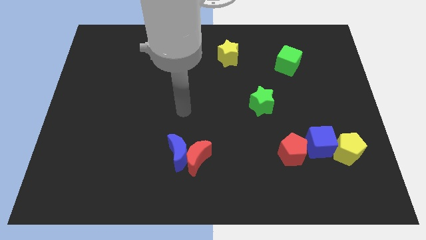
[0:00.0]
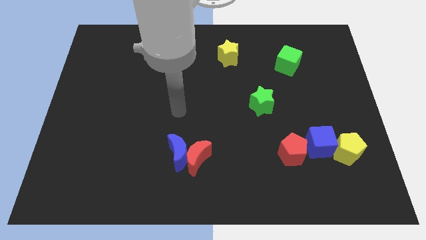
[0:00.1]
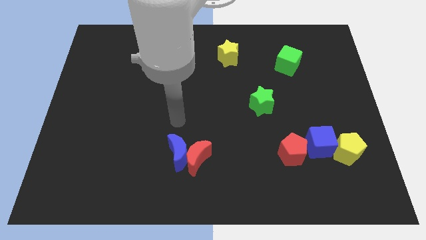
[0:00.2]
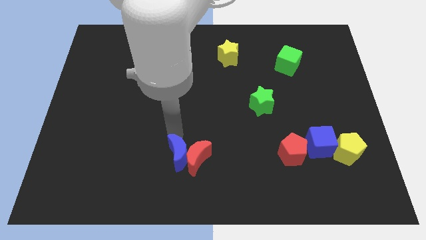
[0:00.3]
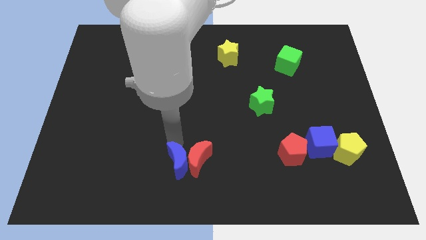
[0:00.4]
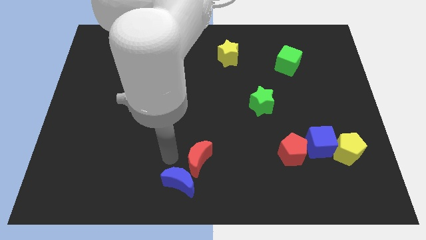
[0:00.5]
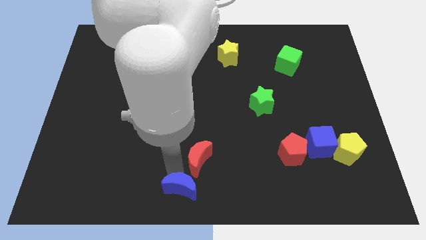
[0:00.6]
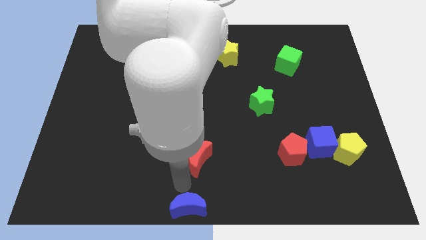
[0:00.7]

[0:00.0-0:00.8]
pull the red moon apart from the blue moon

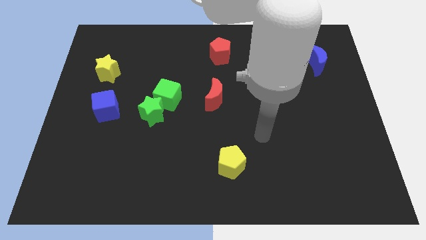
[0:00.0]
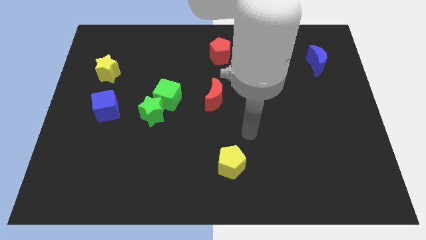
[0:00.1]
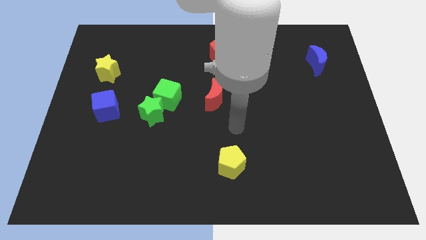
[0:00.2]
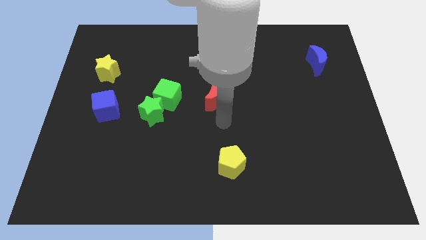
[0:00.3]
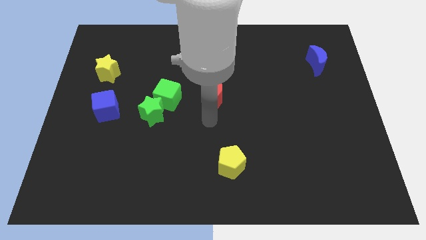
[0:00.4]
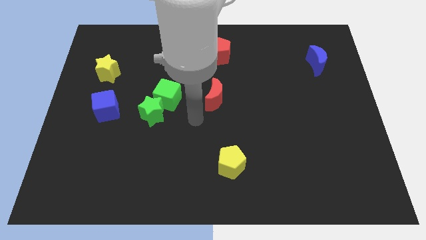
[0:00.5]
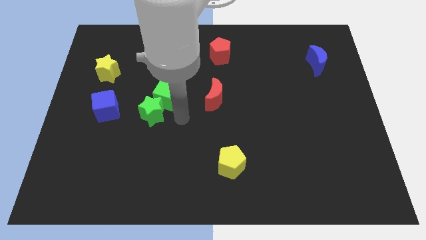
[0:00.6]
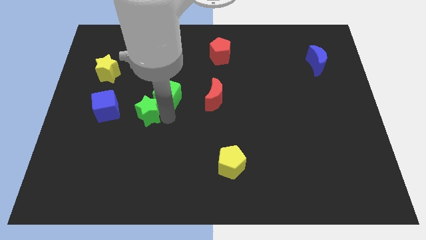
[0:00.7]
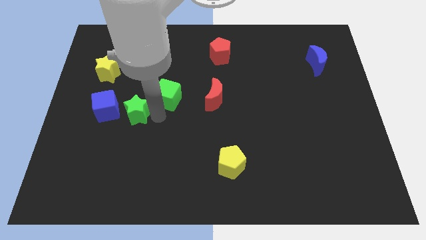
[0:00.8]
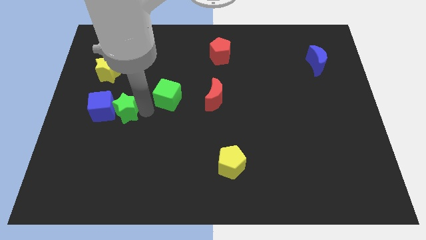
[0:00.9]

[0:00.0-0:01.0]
move the green cube away from the green star

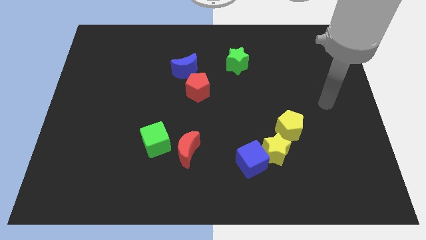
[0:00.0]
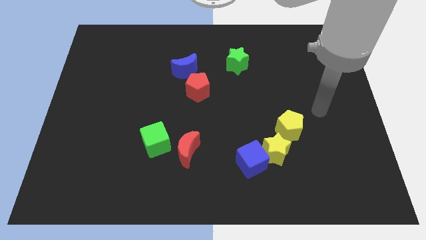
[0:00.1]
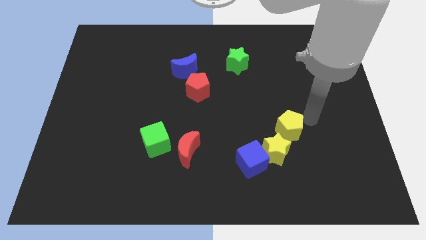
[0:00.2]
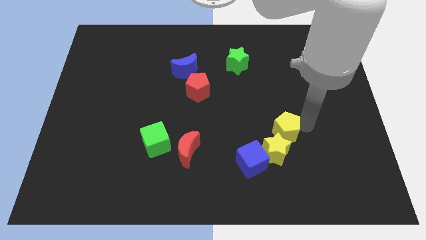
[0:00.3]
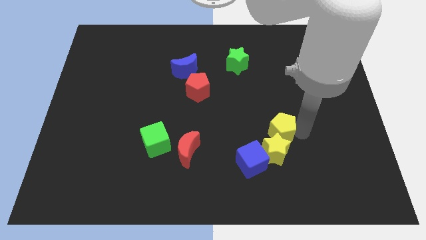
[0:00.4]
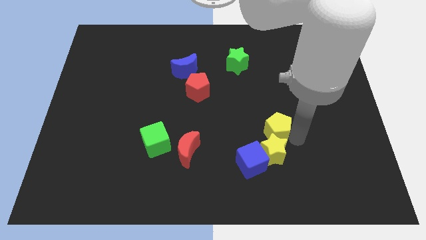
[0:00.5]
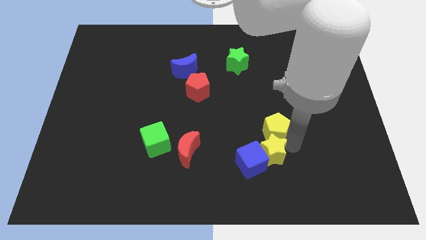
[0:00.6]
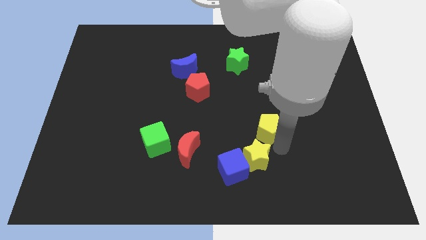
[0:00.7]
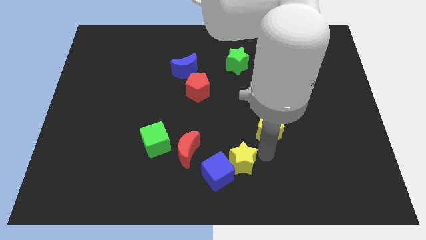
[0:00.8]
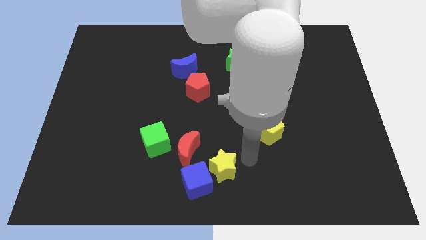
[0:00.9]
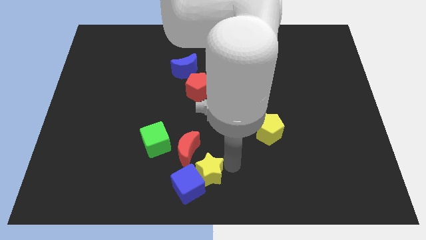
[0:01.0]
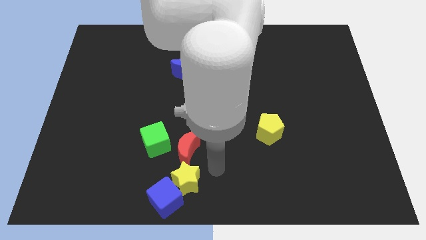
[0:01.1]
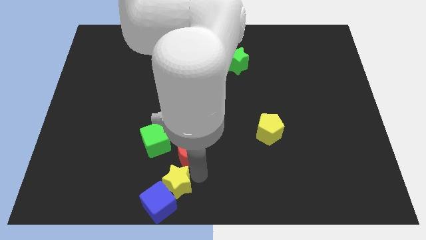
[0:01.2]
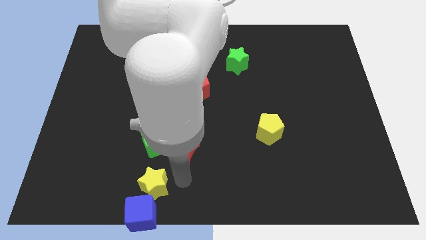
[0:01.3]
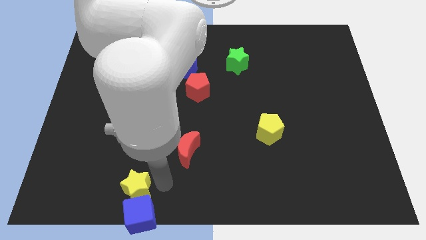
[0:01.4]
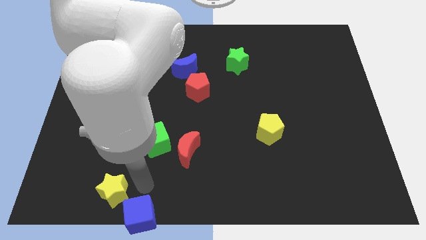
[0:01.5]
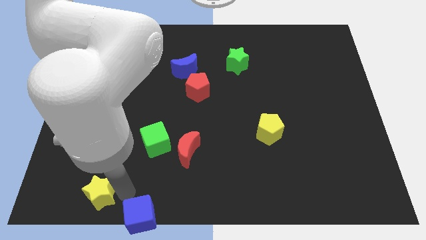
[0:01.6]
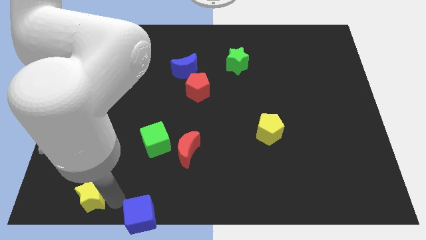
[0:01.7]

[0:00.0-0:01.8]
move the blue cube away from the yellow star

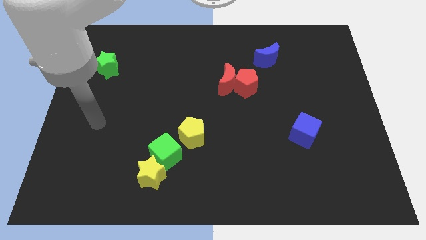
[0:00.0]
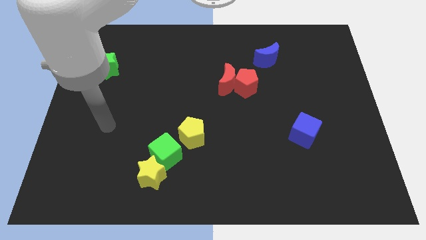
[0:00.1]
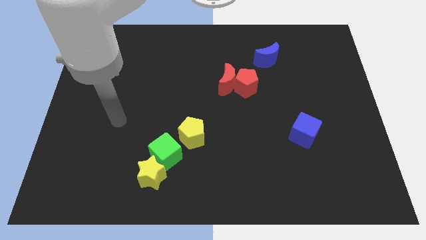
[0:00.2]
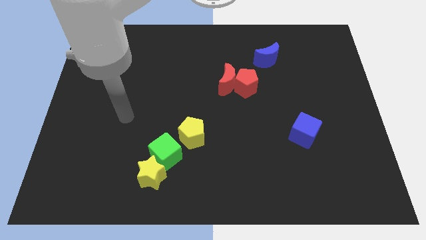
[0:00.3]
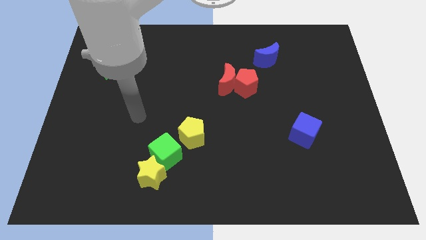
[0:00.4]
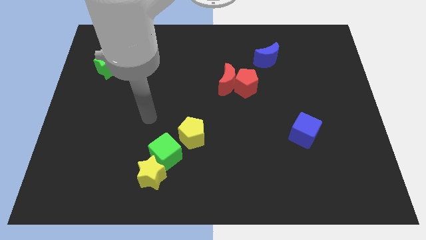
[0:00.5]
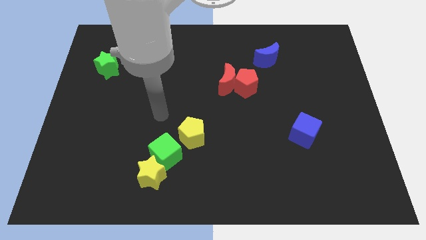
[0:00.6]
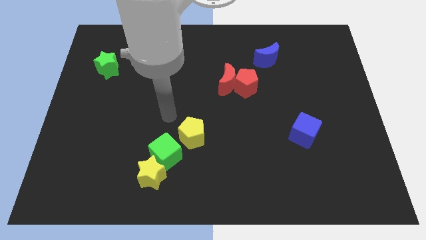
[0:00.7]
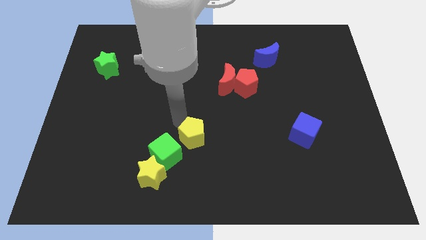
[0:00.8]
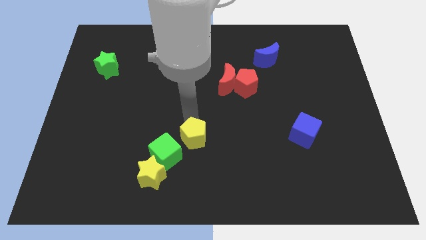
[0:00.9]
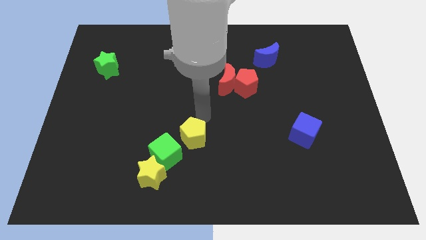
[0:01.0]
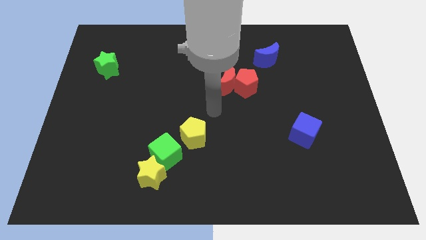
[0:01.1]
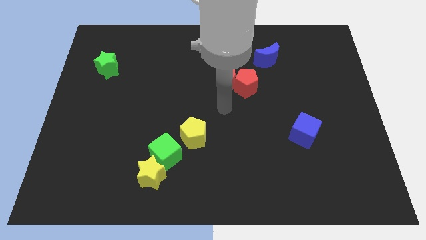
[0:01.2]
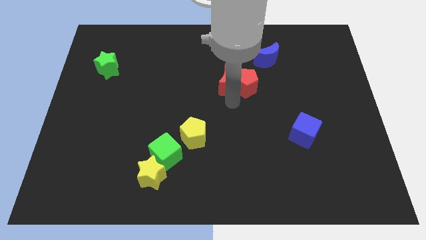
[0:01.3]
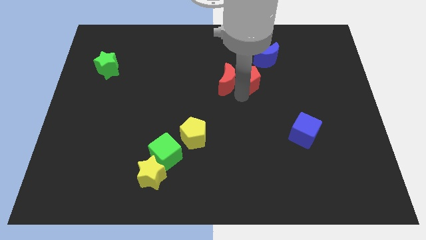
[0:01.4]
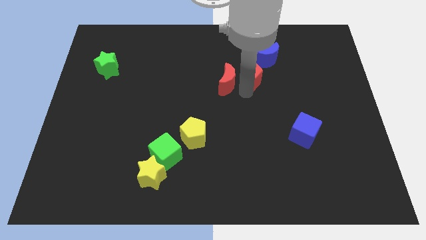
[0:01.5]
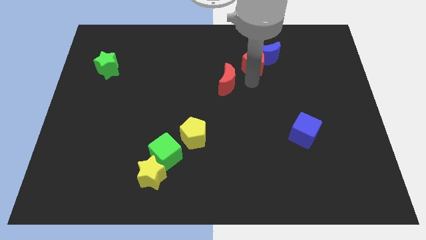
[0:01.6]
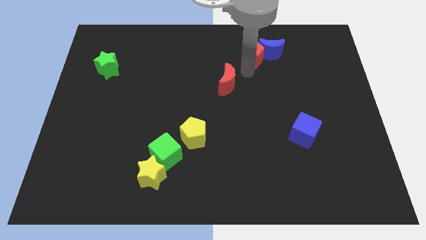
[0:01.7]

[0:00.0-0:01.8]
separate the red moon from the red pentagon

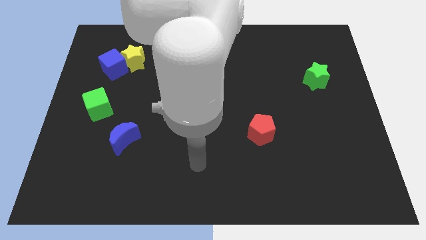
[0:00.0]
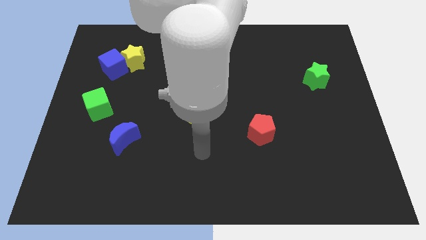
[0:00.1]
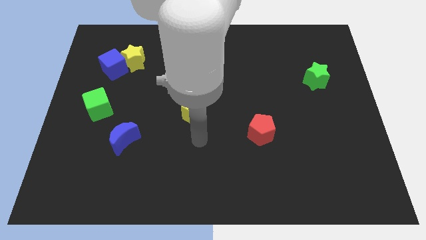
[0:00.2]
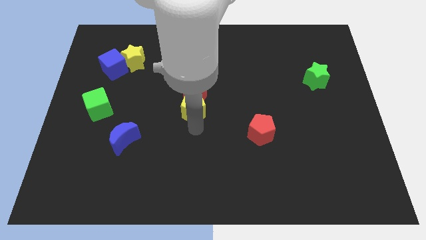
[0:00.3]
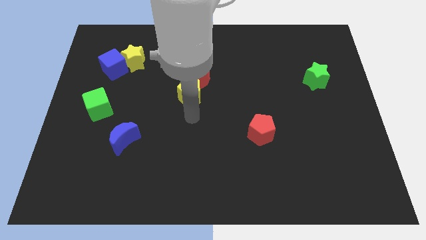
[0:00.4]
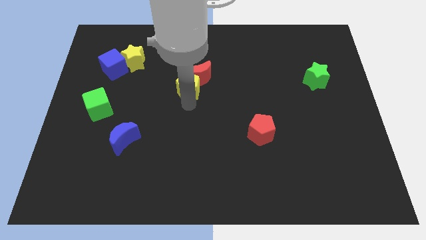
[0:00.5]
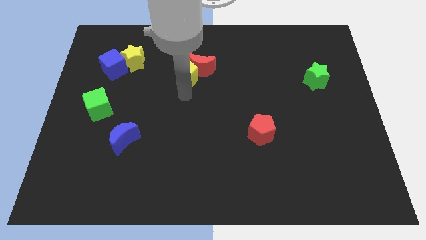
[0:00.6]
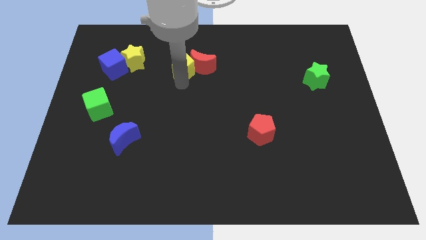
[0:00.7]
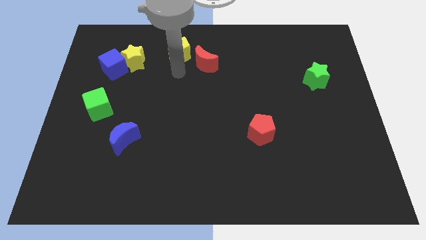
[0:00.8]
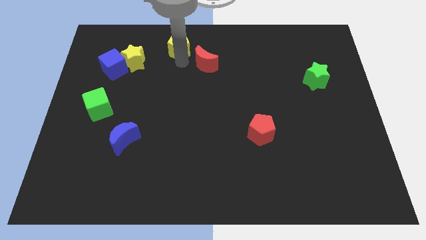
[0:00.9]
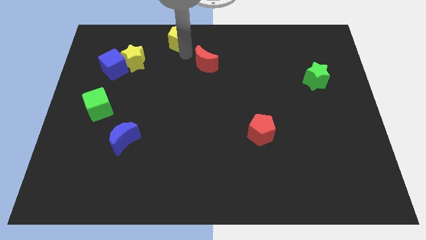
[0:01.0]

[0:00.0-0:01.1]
move the red moon away from the yellow pentagon

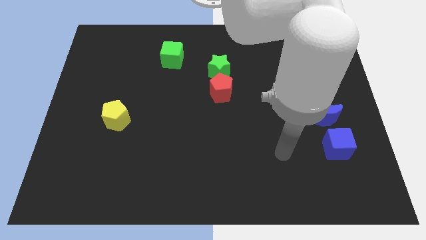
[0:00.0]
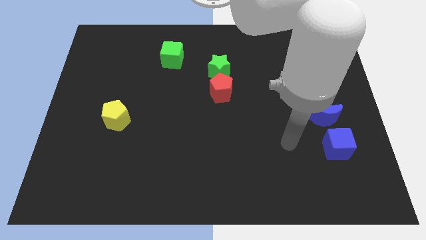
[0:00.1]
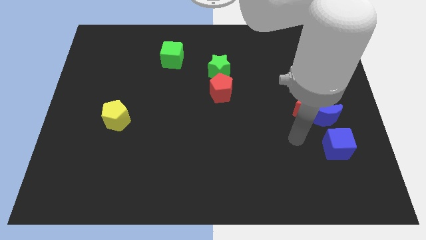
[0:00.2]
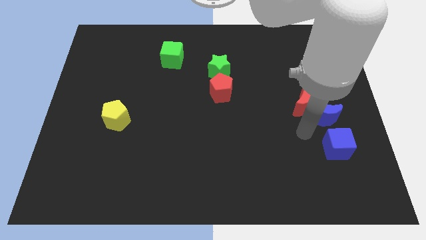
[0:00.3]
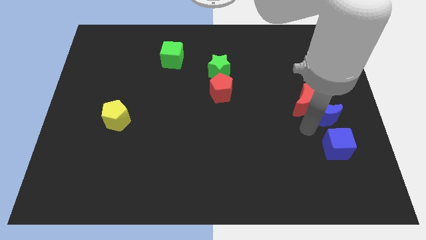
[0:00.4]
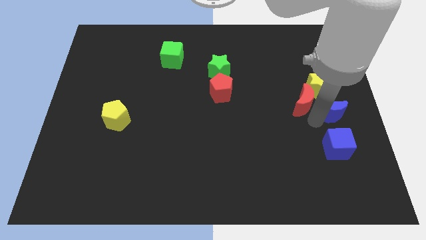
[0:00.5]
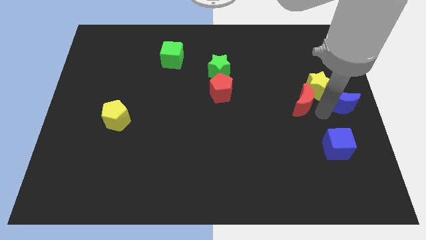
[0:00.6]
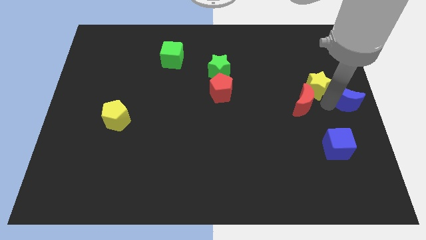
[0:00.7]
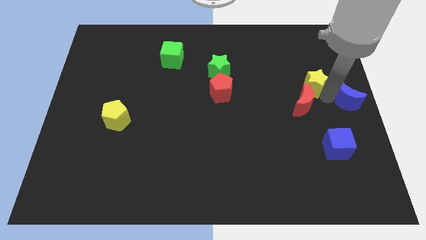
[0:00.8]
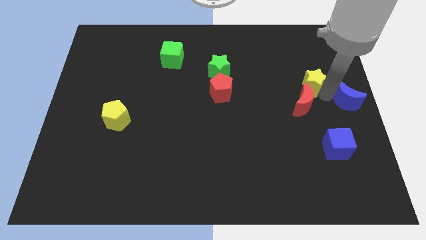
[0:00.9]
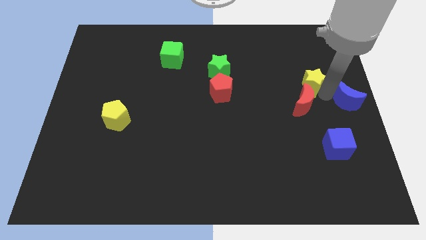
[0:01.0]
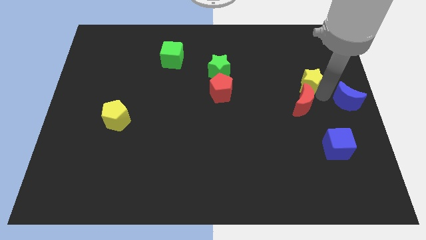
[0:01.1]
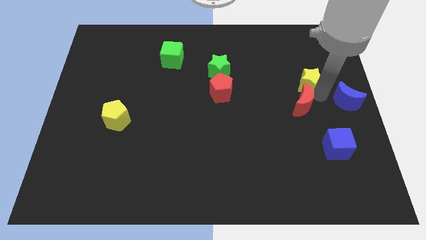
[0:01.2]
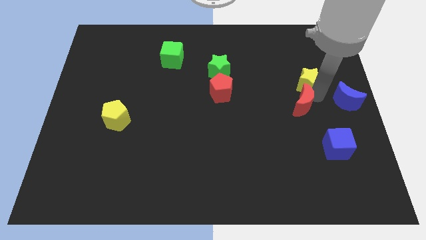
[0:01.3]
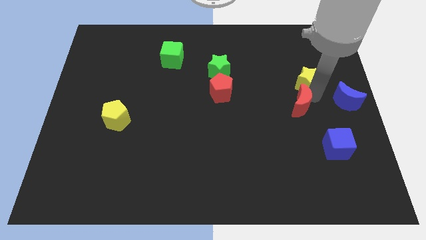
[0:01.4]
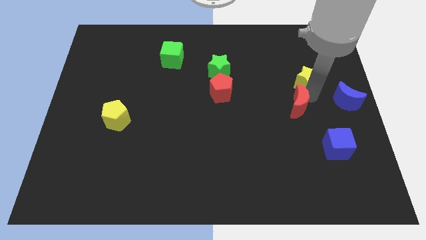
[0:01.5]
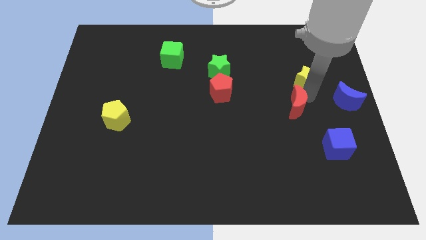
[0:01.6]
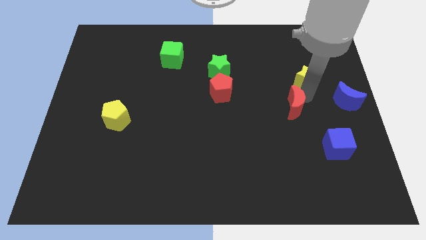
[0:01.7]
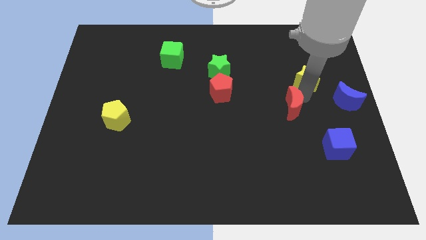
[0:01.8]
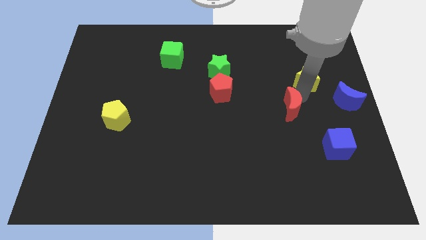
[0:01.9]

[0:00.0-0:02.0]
move the red moon away from the blue moon and yellow star

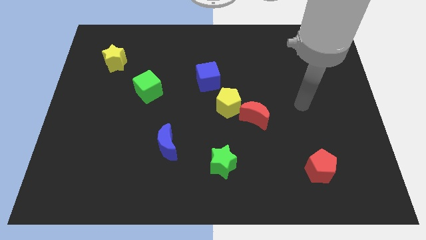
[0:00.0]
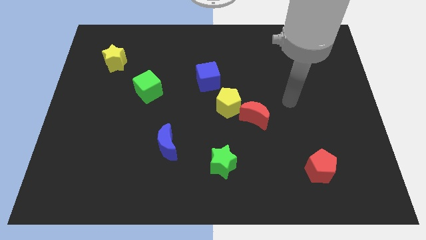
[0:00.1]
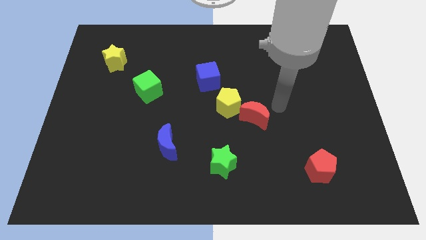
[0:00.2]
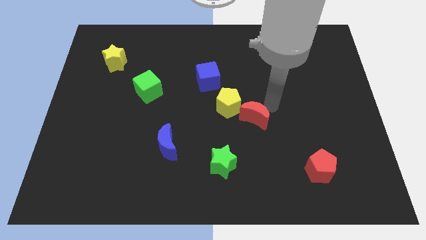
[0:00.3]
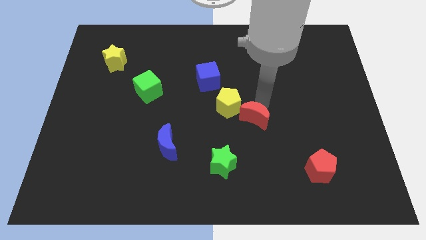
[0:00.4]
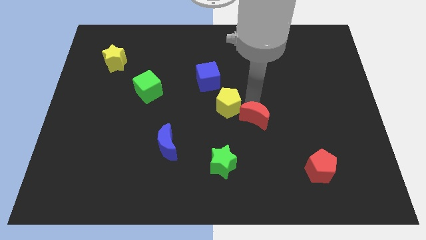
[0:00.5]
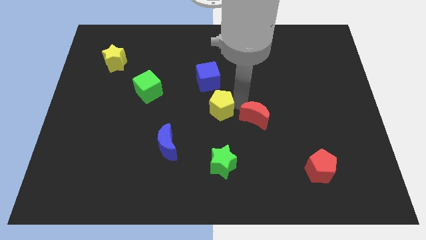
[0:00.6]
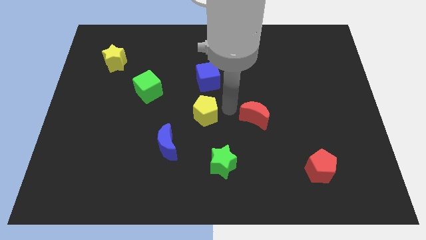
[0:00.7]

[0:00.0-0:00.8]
separate the red moon from the yellow pentagon
